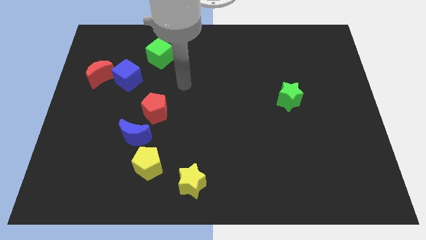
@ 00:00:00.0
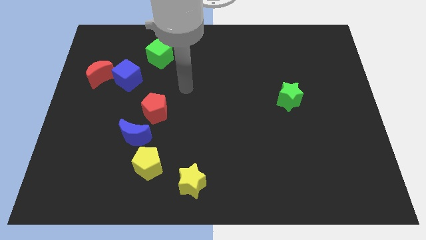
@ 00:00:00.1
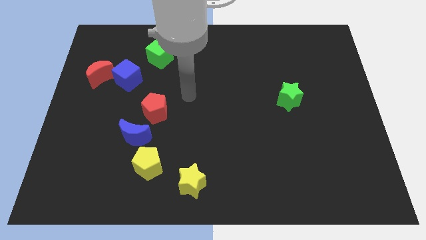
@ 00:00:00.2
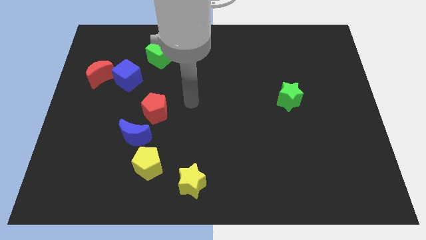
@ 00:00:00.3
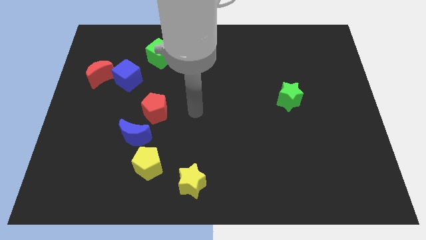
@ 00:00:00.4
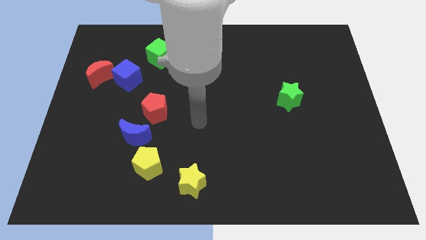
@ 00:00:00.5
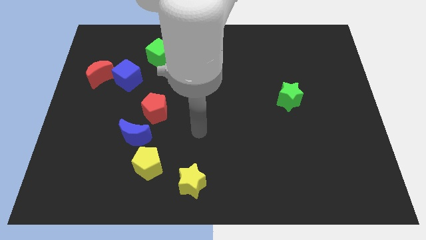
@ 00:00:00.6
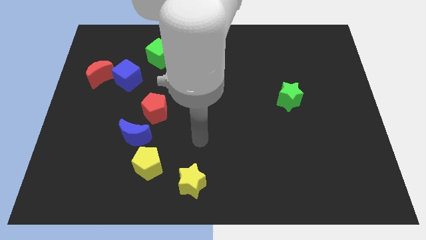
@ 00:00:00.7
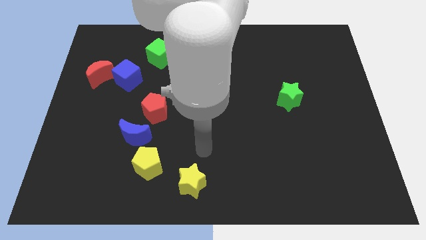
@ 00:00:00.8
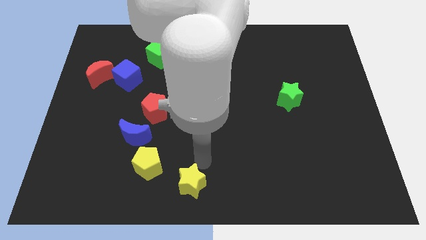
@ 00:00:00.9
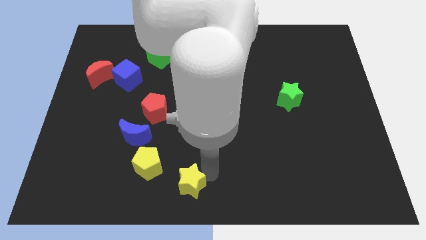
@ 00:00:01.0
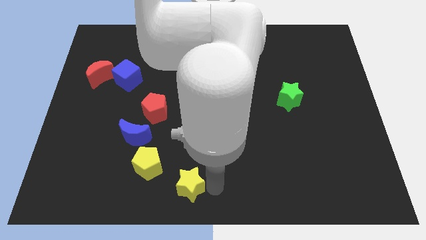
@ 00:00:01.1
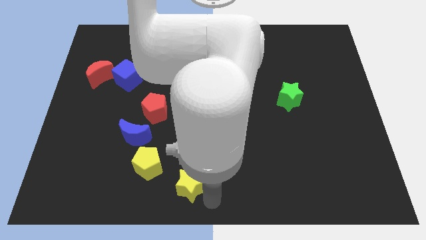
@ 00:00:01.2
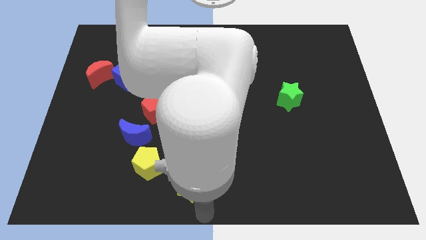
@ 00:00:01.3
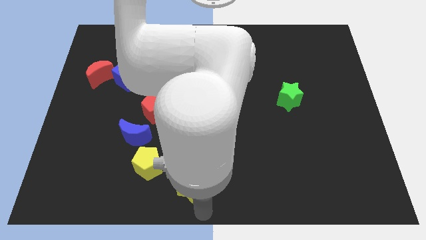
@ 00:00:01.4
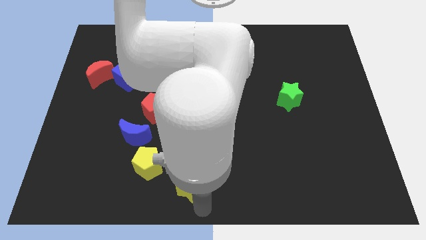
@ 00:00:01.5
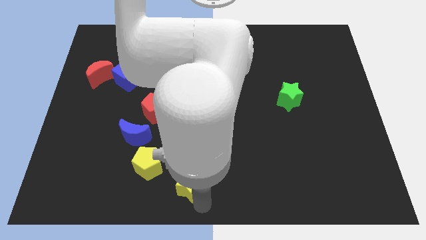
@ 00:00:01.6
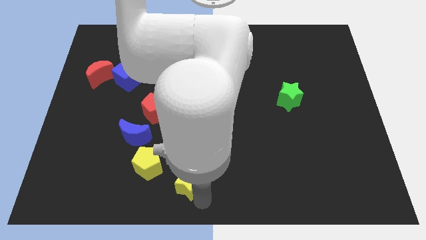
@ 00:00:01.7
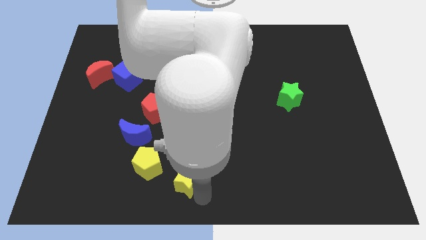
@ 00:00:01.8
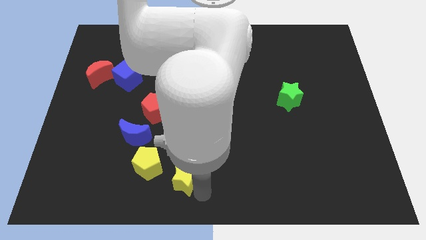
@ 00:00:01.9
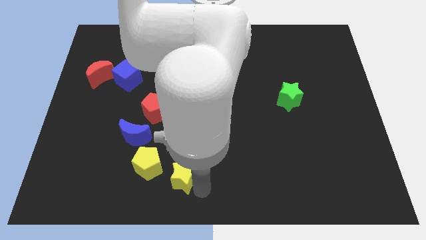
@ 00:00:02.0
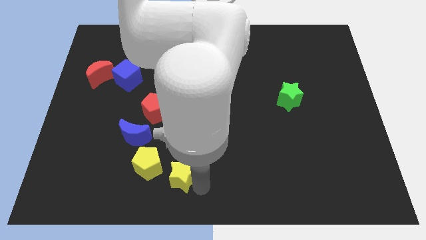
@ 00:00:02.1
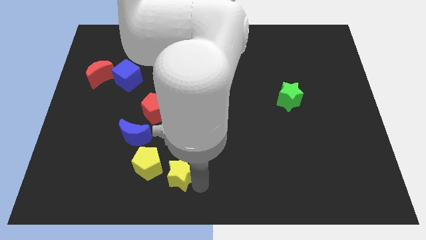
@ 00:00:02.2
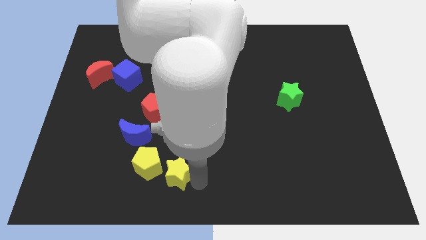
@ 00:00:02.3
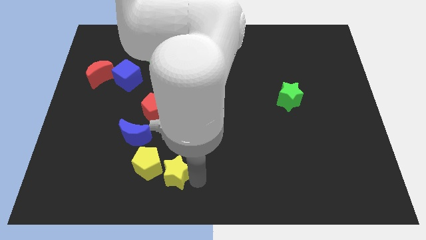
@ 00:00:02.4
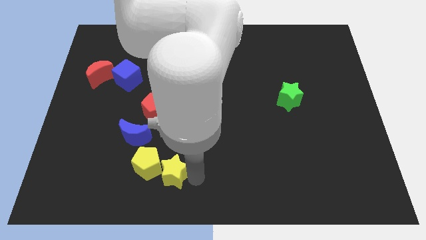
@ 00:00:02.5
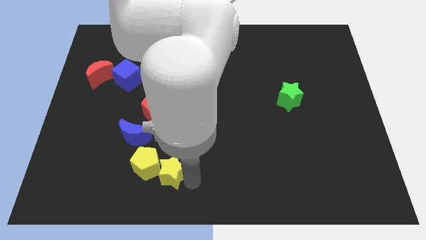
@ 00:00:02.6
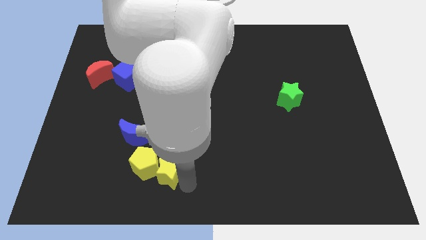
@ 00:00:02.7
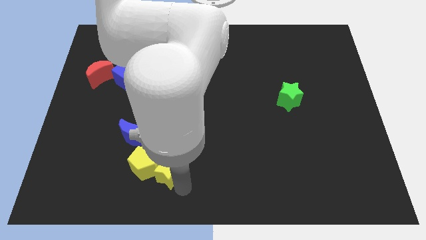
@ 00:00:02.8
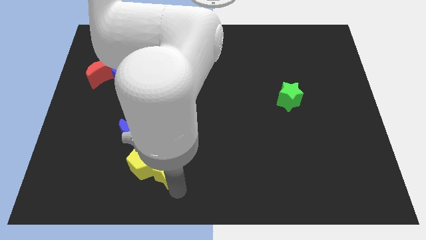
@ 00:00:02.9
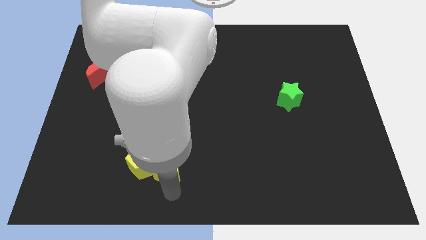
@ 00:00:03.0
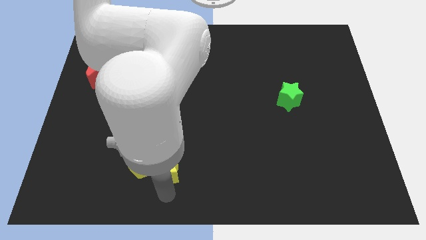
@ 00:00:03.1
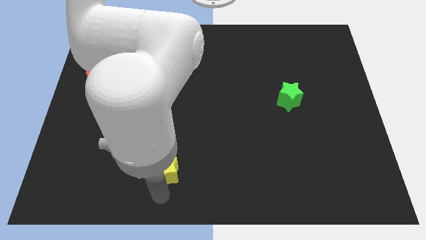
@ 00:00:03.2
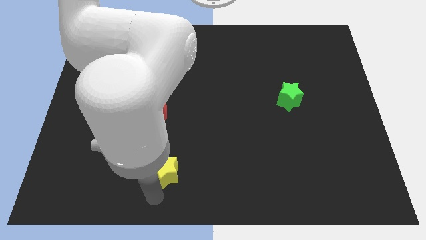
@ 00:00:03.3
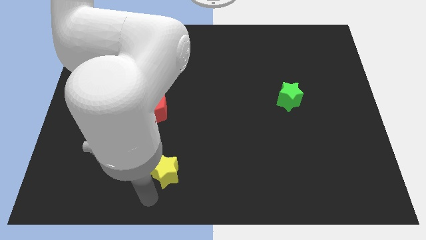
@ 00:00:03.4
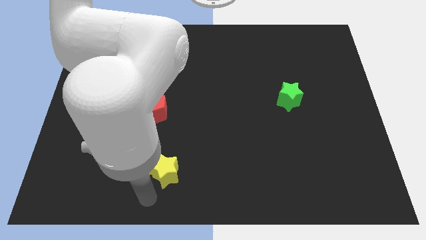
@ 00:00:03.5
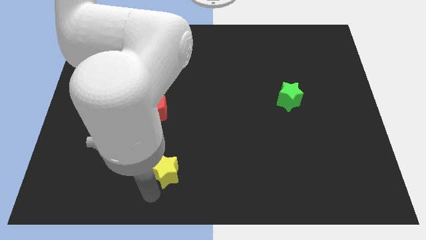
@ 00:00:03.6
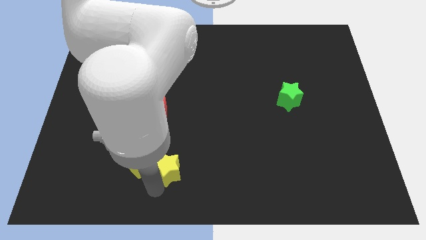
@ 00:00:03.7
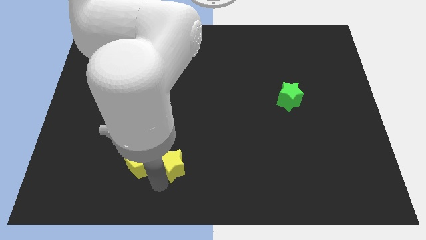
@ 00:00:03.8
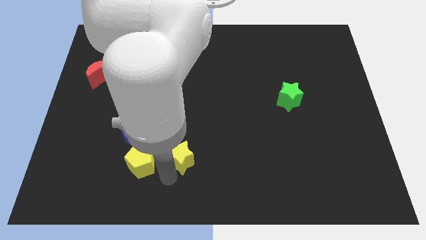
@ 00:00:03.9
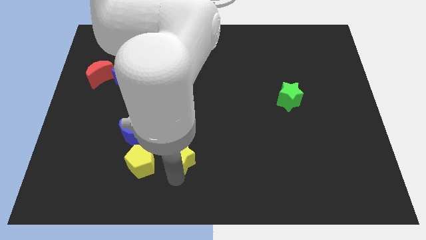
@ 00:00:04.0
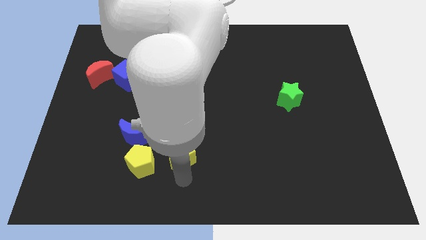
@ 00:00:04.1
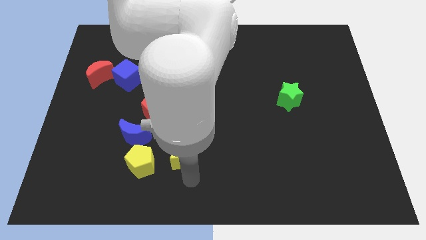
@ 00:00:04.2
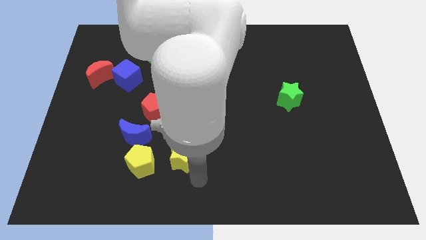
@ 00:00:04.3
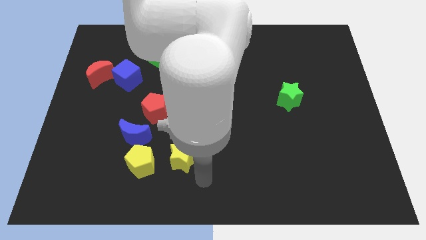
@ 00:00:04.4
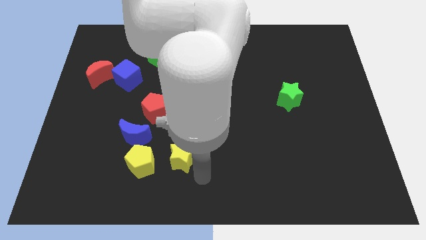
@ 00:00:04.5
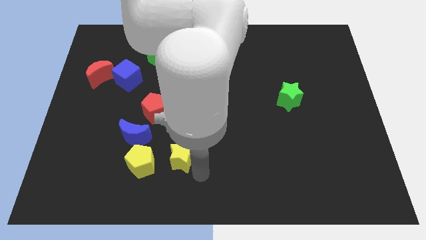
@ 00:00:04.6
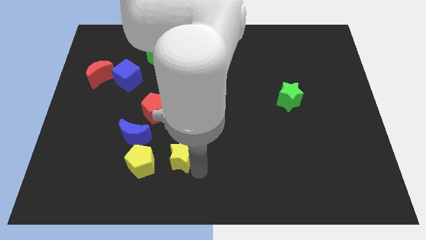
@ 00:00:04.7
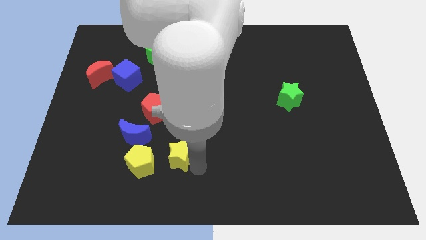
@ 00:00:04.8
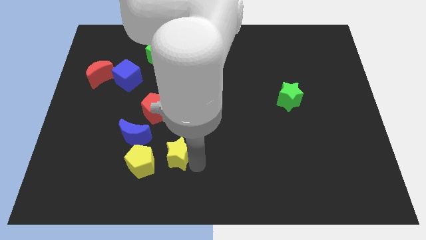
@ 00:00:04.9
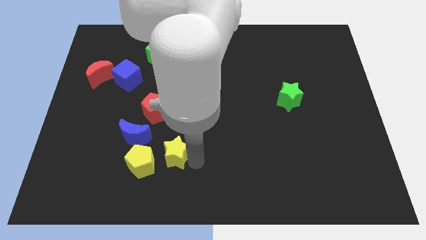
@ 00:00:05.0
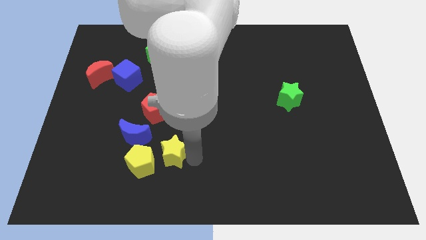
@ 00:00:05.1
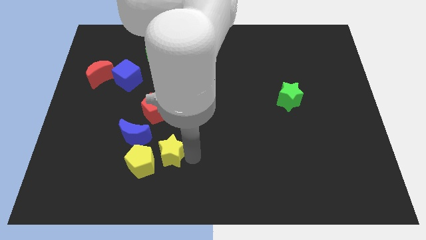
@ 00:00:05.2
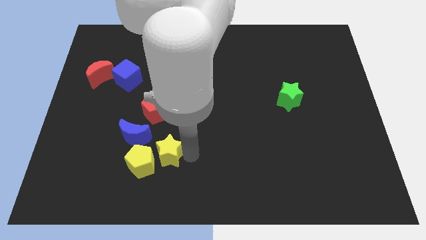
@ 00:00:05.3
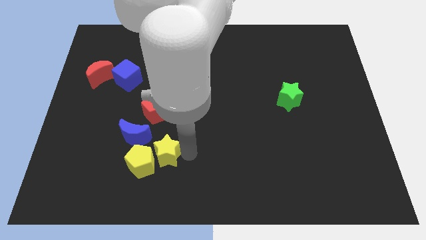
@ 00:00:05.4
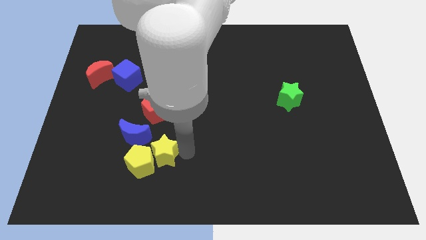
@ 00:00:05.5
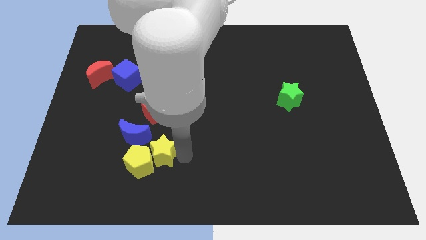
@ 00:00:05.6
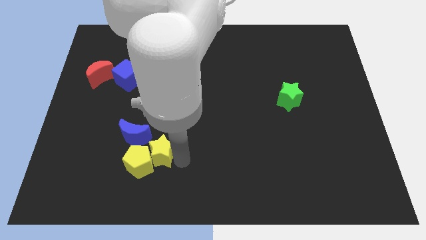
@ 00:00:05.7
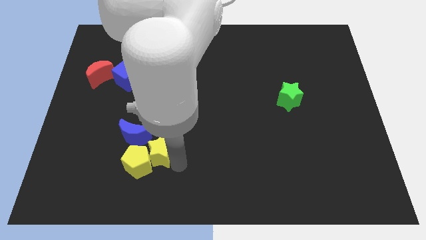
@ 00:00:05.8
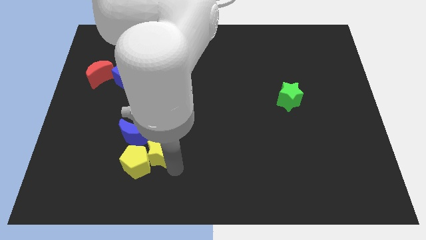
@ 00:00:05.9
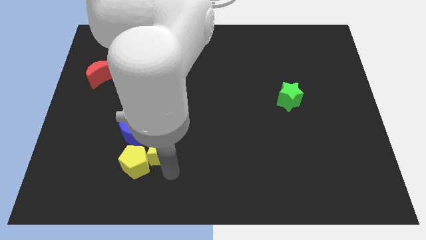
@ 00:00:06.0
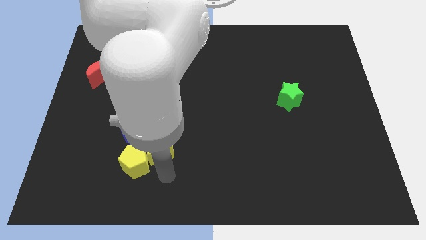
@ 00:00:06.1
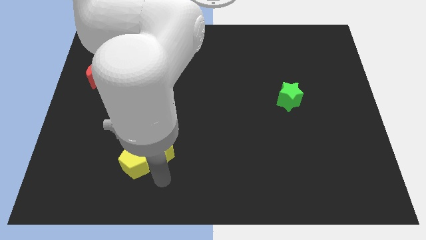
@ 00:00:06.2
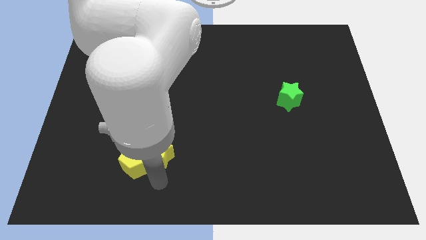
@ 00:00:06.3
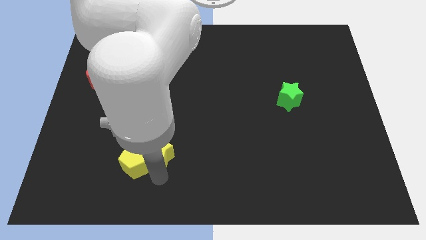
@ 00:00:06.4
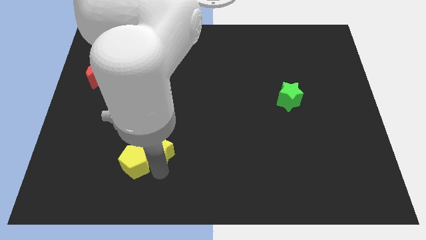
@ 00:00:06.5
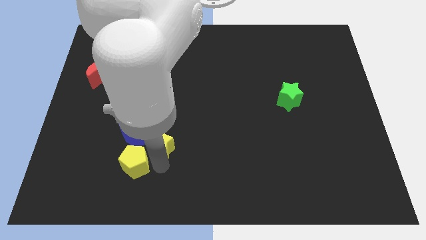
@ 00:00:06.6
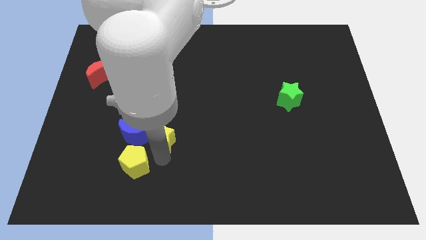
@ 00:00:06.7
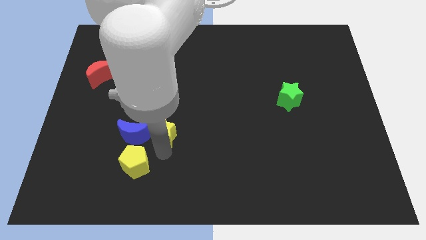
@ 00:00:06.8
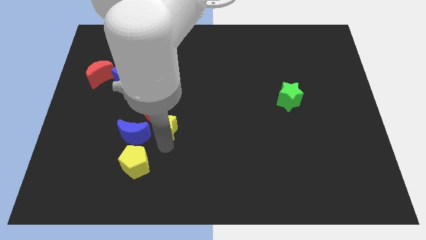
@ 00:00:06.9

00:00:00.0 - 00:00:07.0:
put the yellow star close to the red pentagon
